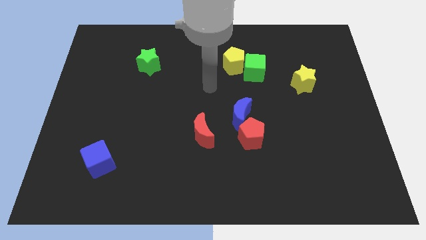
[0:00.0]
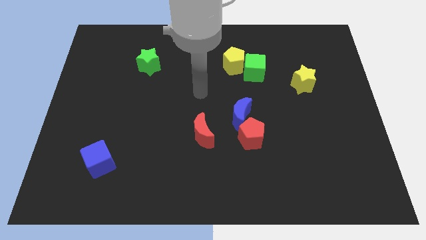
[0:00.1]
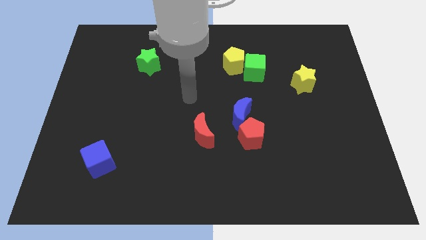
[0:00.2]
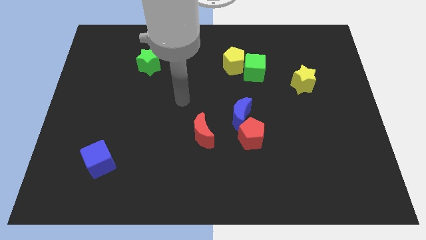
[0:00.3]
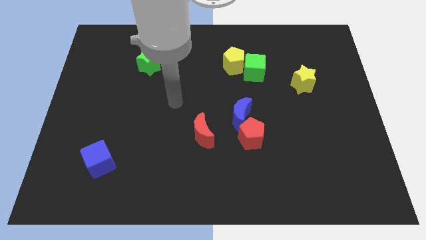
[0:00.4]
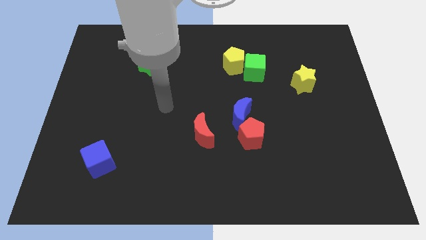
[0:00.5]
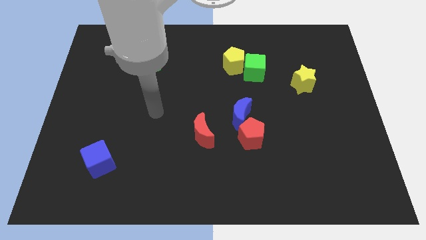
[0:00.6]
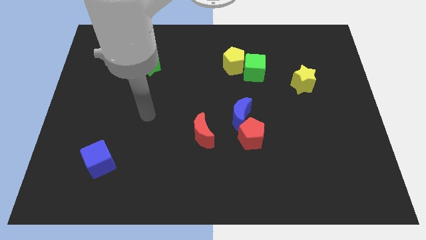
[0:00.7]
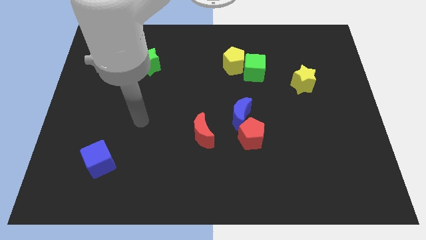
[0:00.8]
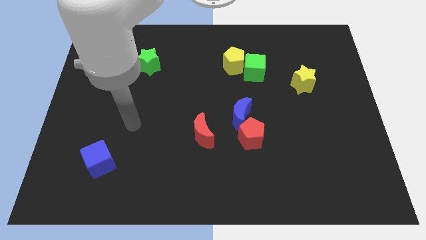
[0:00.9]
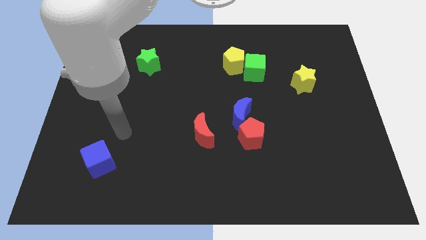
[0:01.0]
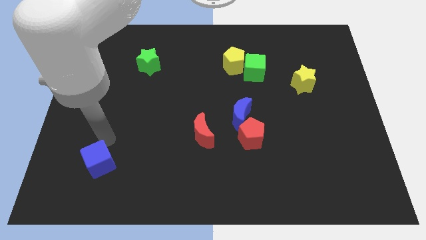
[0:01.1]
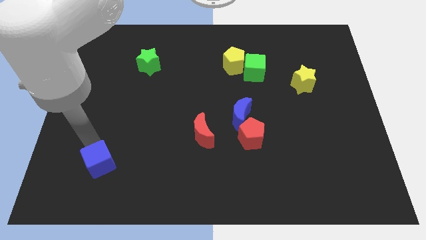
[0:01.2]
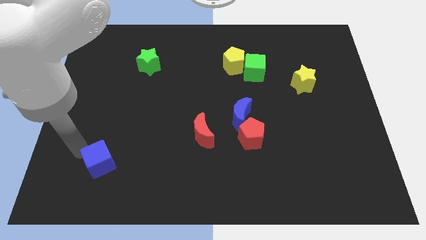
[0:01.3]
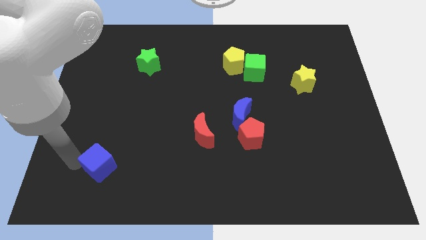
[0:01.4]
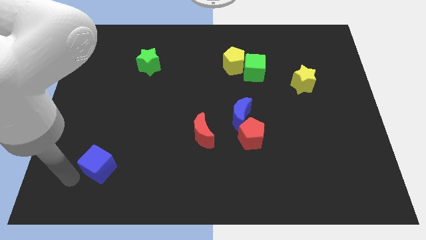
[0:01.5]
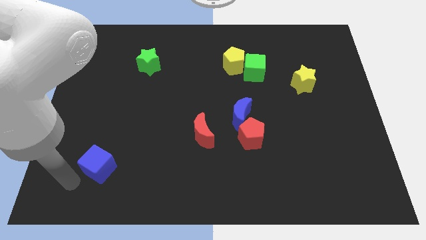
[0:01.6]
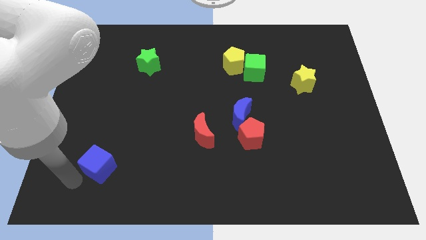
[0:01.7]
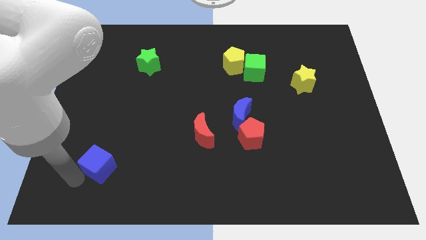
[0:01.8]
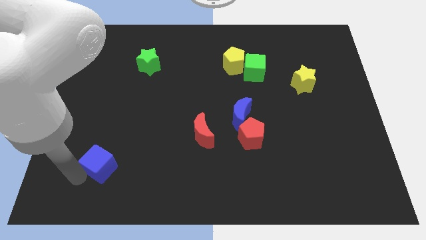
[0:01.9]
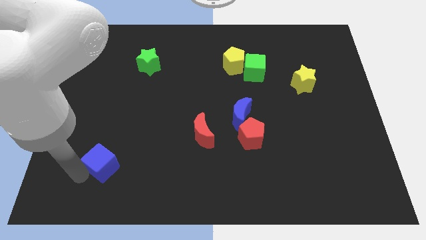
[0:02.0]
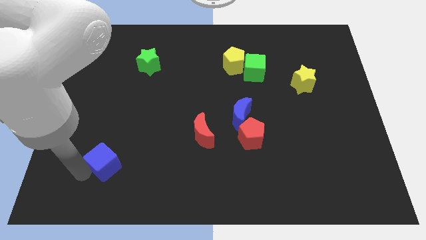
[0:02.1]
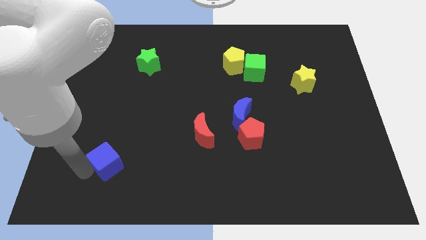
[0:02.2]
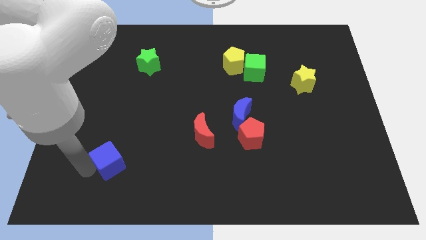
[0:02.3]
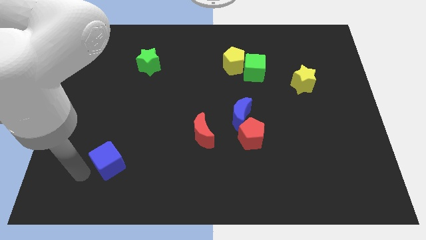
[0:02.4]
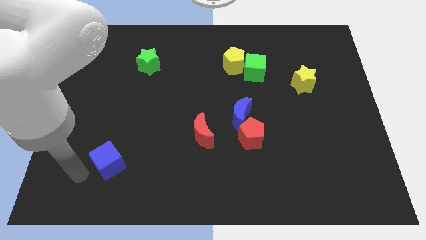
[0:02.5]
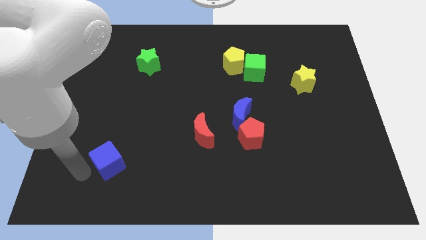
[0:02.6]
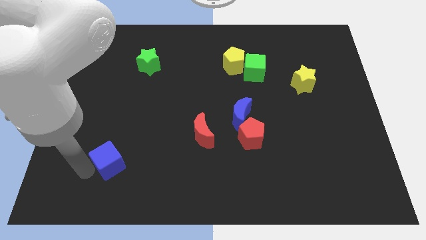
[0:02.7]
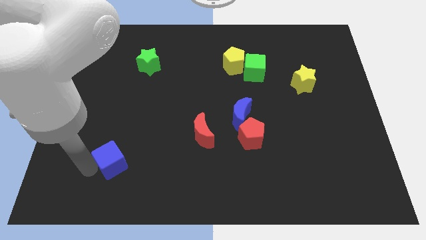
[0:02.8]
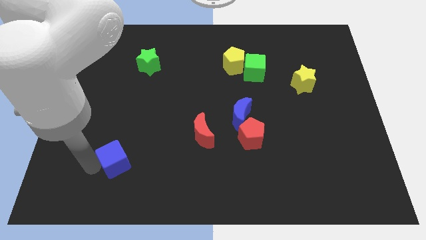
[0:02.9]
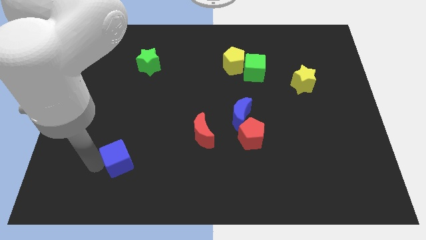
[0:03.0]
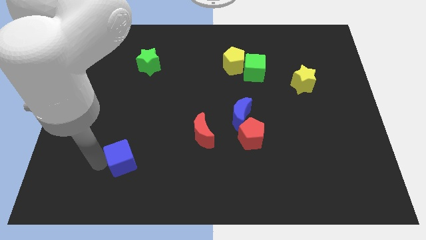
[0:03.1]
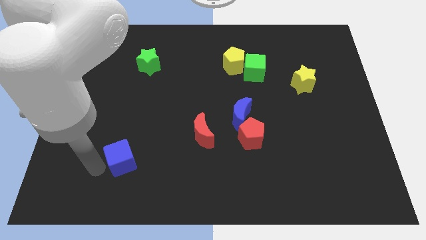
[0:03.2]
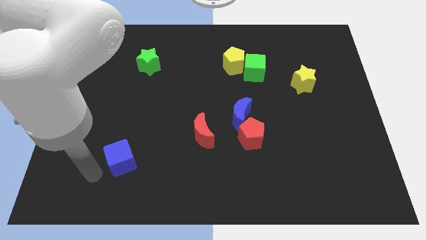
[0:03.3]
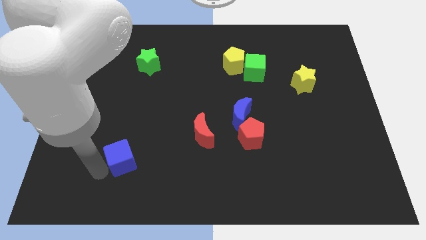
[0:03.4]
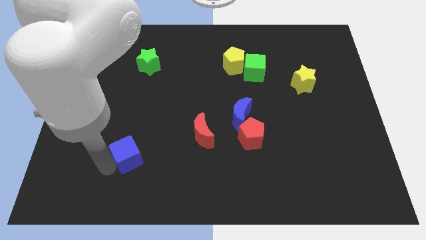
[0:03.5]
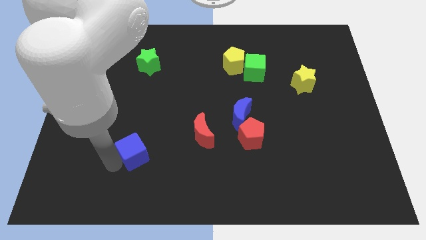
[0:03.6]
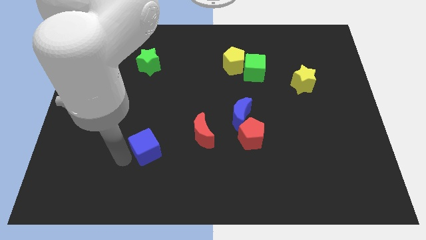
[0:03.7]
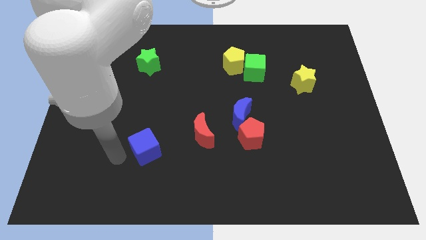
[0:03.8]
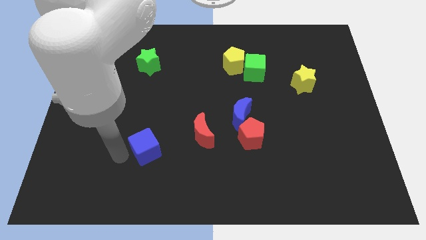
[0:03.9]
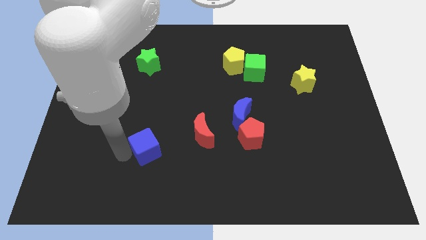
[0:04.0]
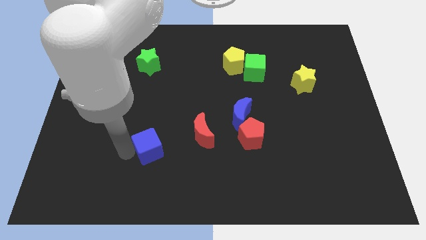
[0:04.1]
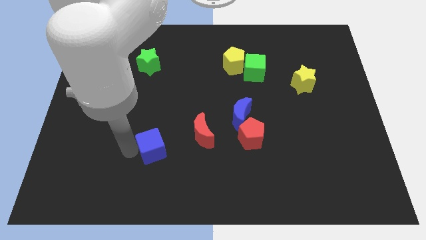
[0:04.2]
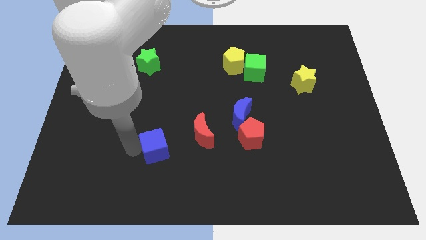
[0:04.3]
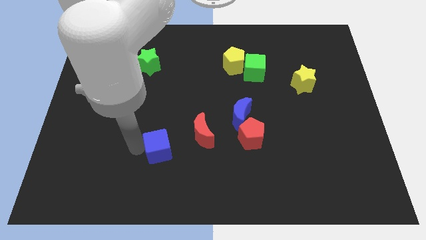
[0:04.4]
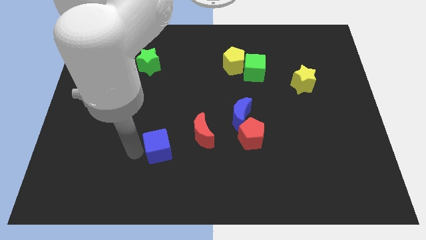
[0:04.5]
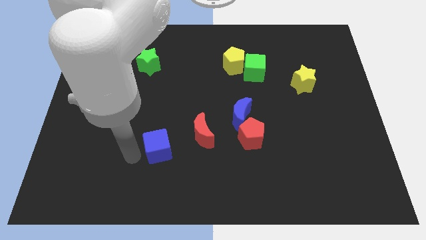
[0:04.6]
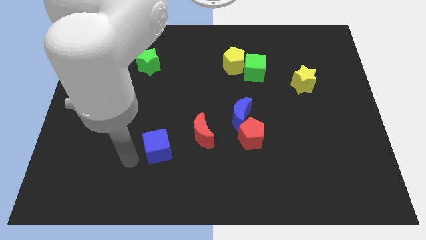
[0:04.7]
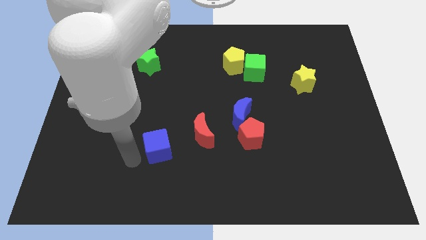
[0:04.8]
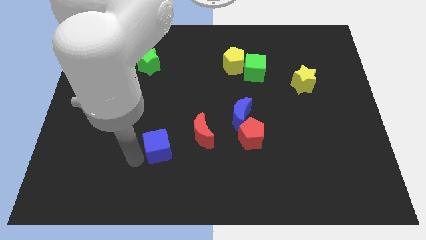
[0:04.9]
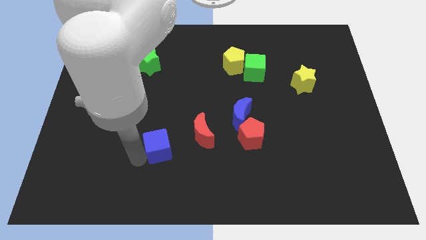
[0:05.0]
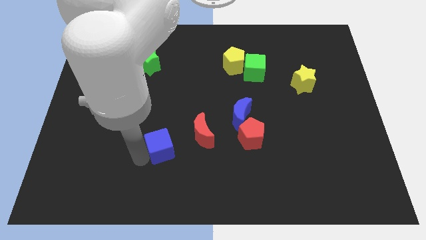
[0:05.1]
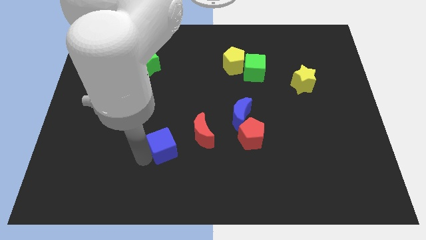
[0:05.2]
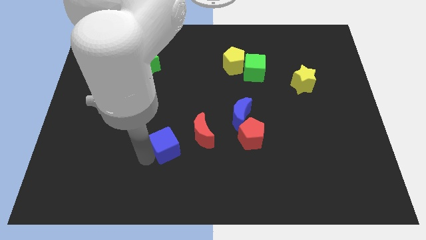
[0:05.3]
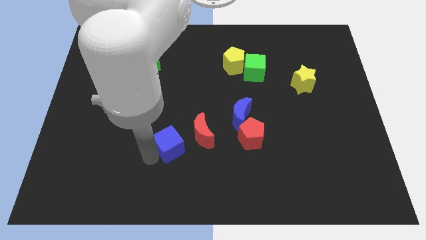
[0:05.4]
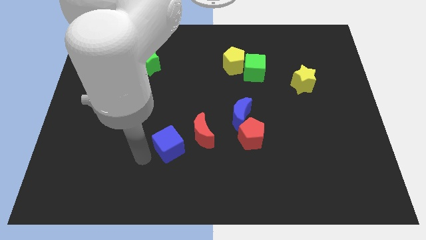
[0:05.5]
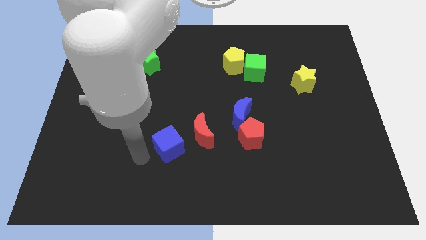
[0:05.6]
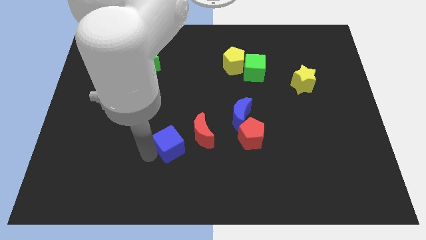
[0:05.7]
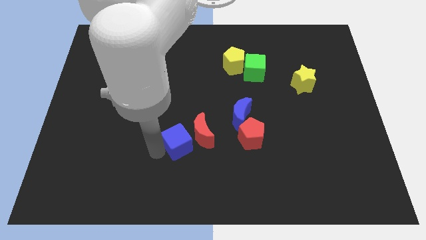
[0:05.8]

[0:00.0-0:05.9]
slide the blue cube next to the red moon

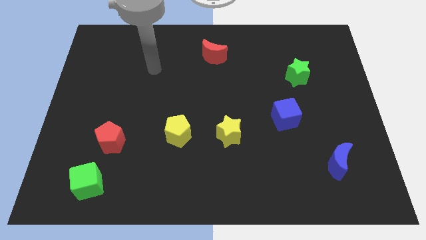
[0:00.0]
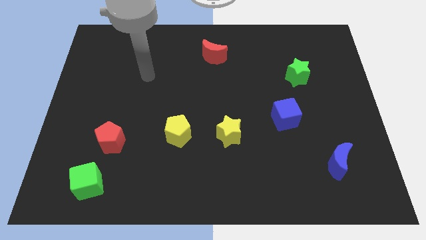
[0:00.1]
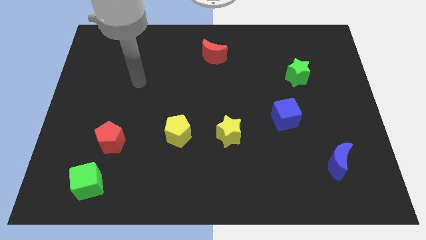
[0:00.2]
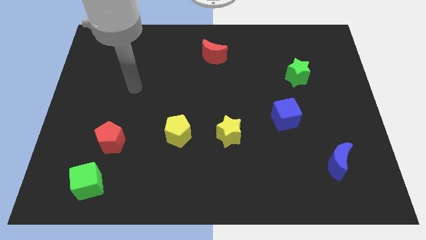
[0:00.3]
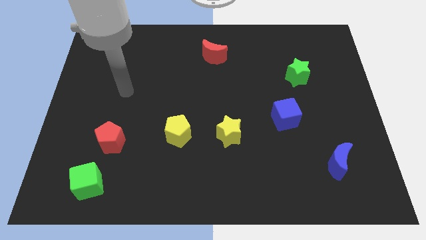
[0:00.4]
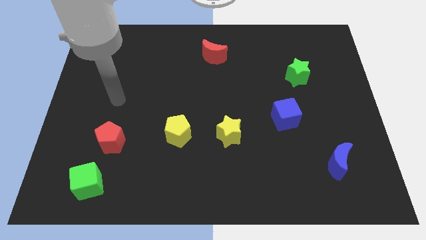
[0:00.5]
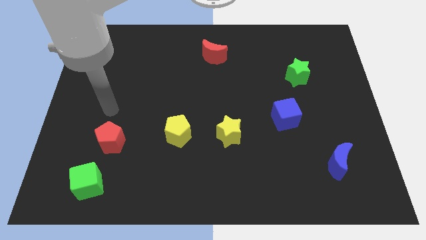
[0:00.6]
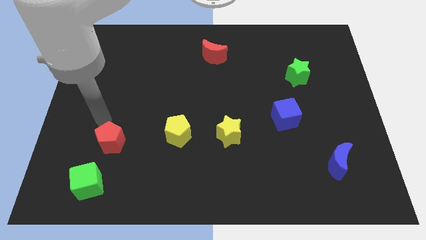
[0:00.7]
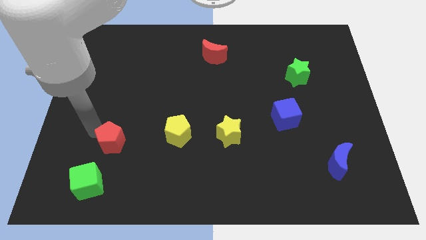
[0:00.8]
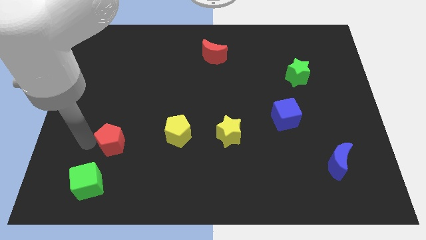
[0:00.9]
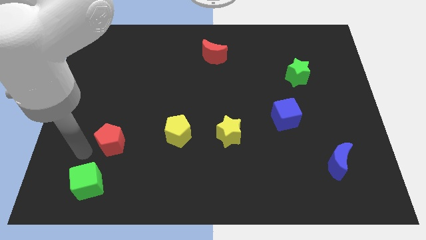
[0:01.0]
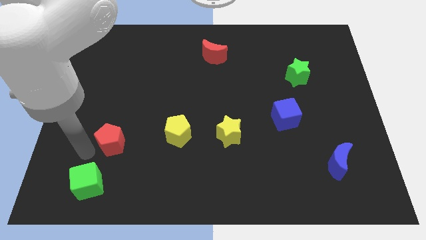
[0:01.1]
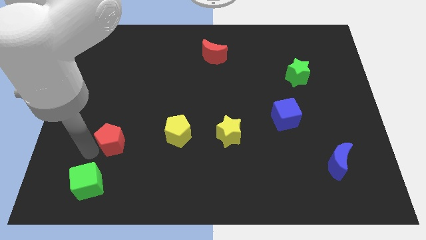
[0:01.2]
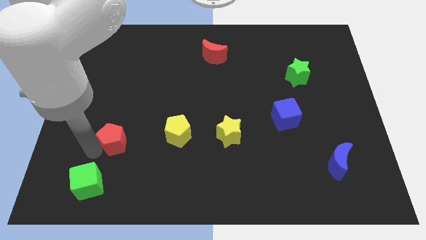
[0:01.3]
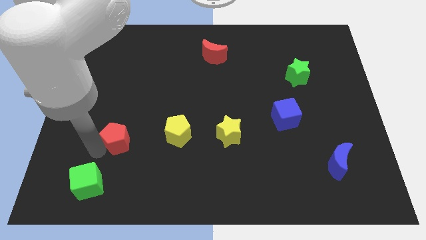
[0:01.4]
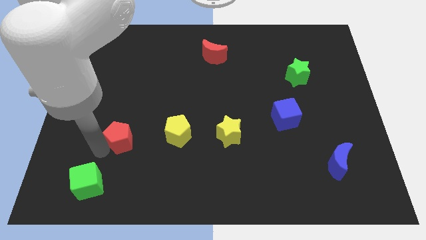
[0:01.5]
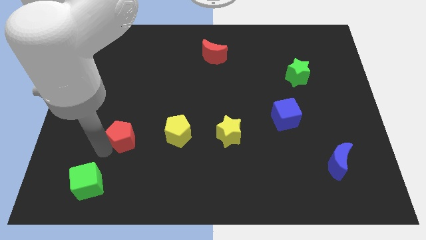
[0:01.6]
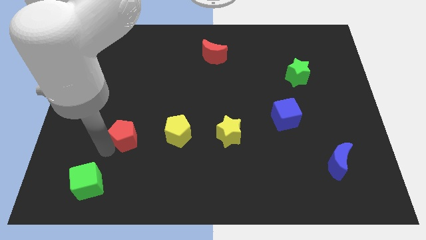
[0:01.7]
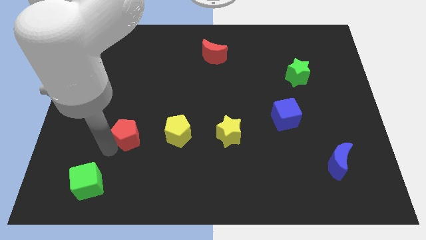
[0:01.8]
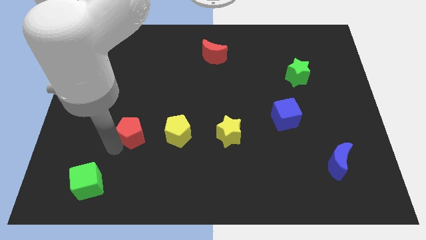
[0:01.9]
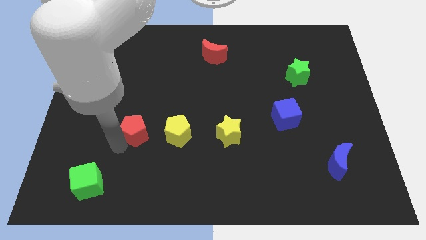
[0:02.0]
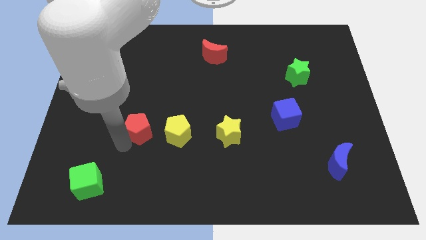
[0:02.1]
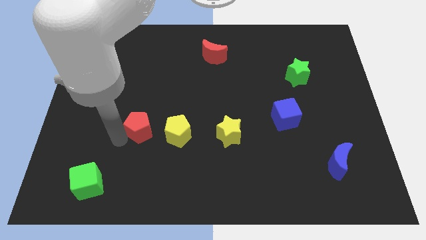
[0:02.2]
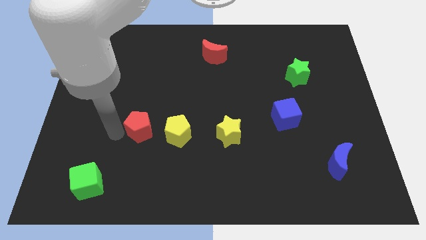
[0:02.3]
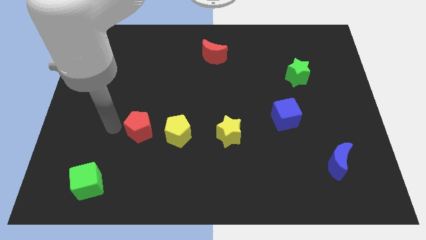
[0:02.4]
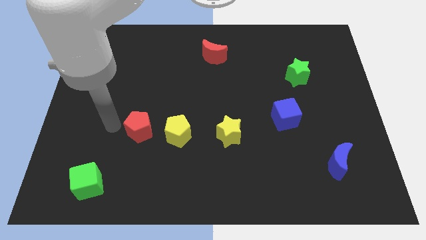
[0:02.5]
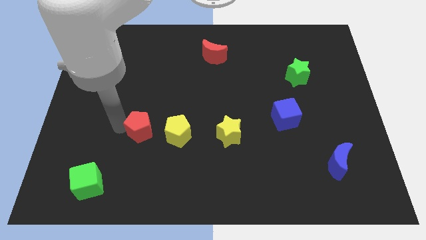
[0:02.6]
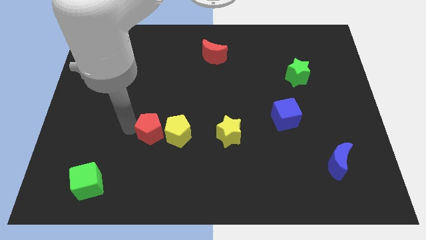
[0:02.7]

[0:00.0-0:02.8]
push the red pentagon next to the yellow pentagon
